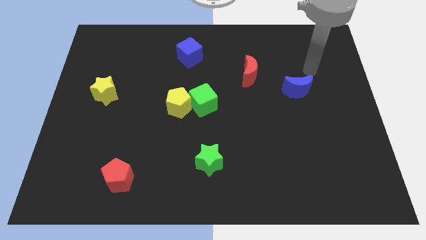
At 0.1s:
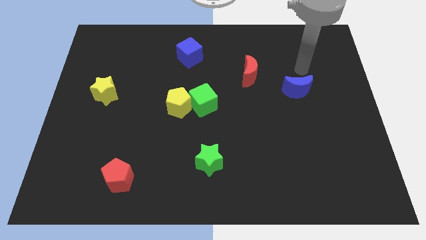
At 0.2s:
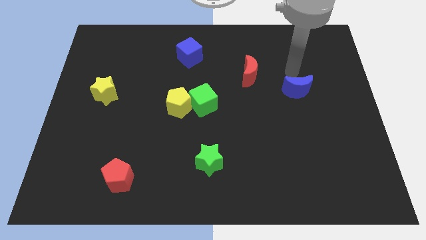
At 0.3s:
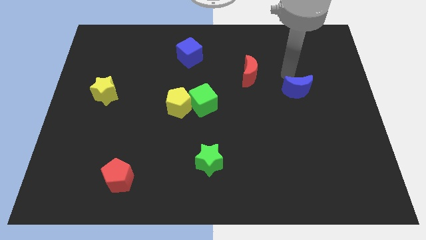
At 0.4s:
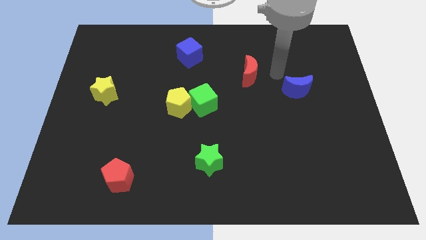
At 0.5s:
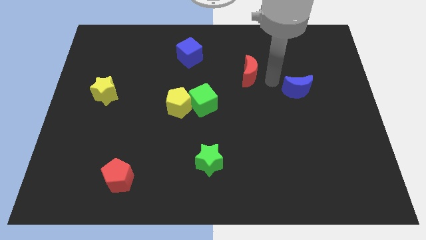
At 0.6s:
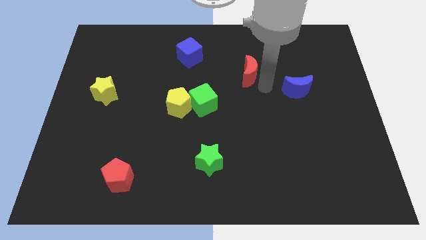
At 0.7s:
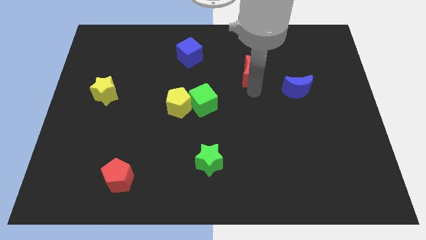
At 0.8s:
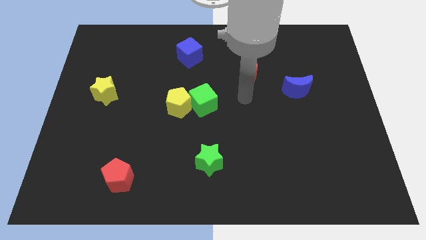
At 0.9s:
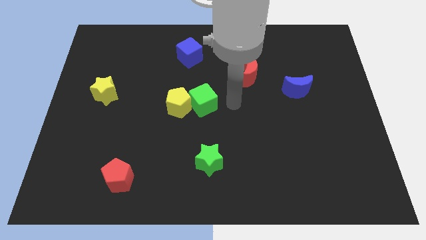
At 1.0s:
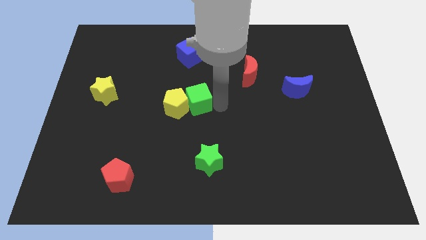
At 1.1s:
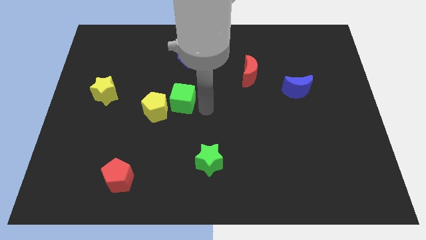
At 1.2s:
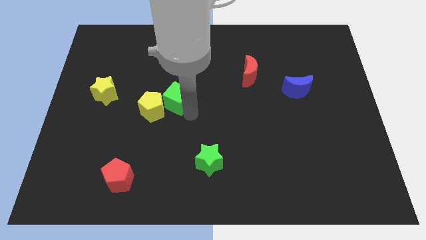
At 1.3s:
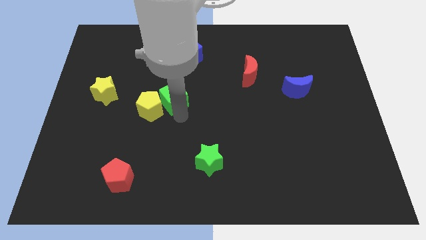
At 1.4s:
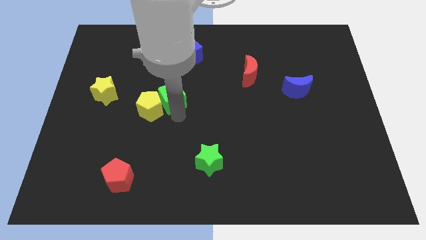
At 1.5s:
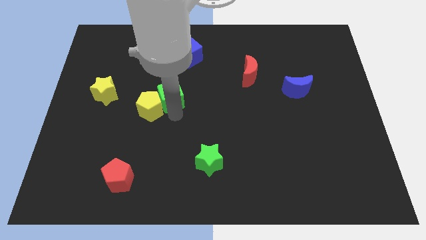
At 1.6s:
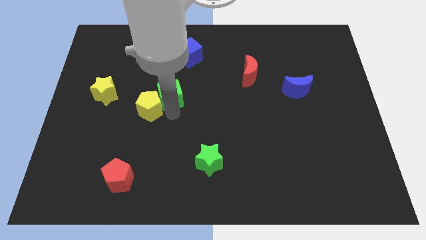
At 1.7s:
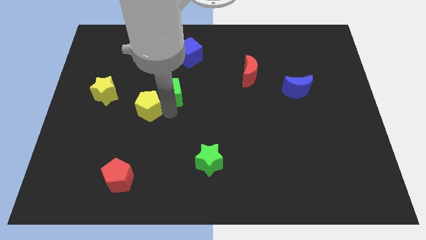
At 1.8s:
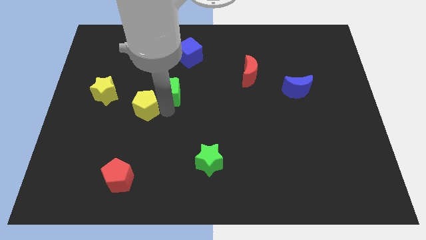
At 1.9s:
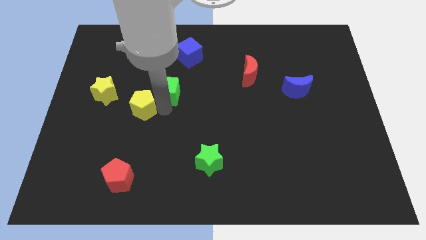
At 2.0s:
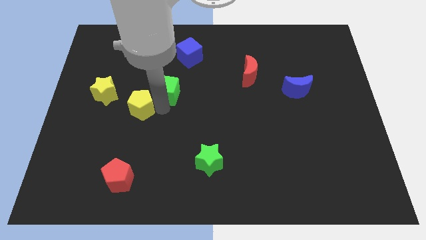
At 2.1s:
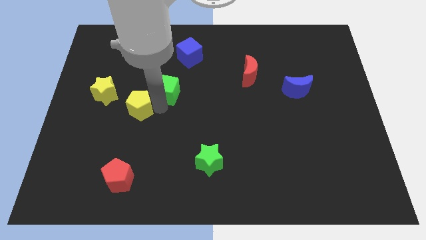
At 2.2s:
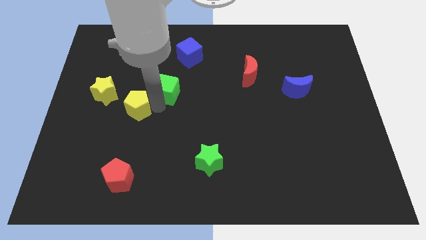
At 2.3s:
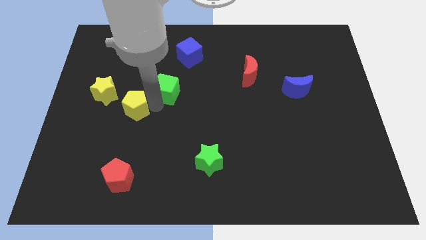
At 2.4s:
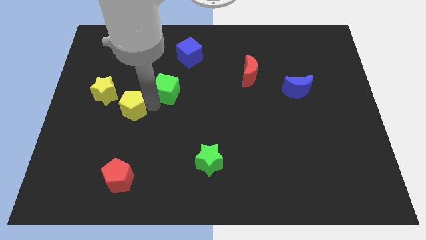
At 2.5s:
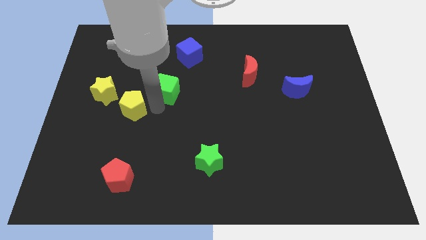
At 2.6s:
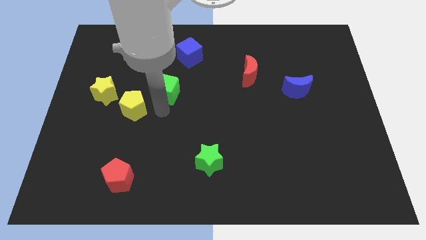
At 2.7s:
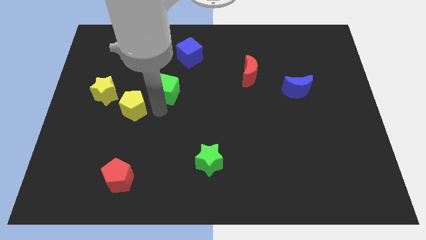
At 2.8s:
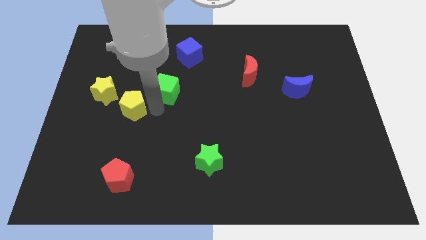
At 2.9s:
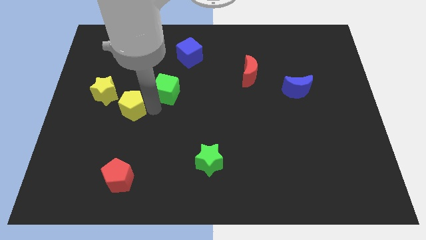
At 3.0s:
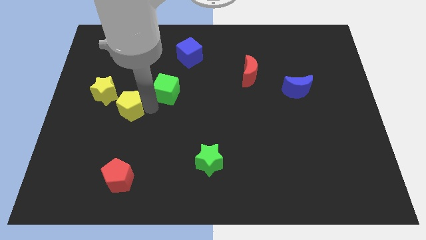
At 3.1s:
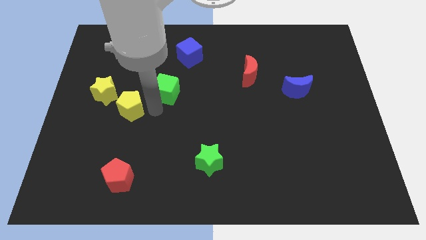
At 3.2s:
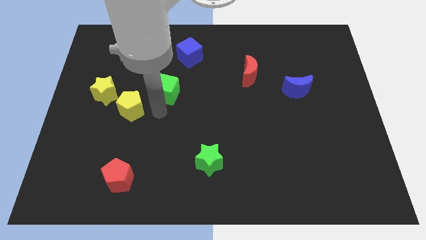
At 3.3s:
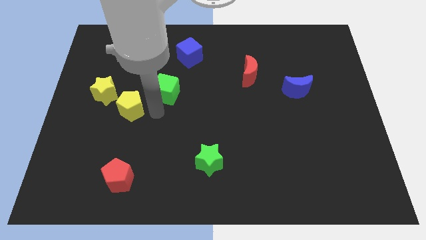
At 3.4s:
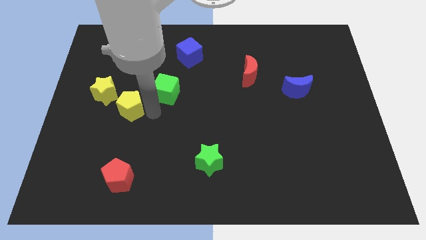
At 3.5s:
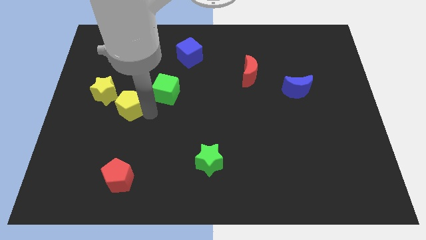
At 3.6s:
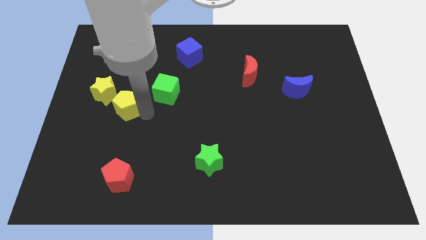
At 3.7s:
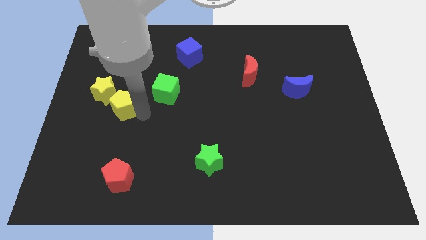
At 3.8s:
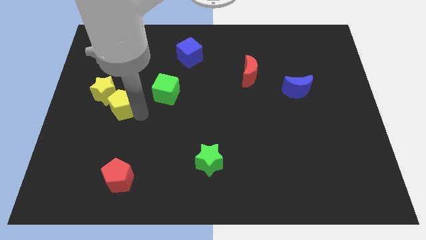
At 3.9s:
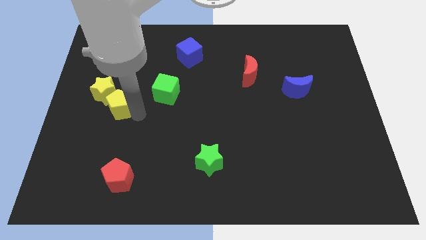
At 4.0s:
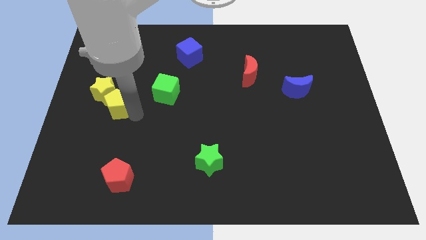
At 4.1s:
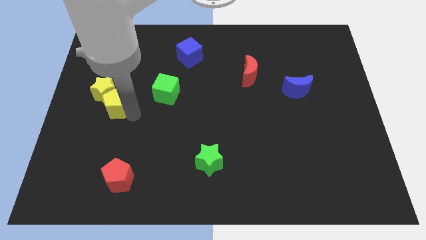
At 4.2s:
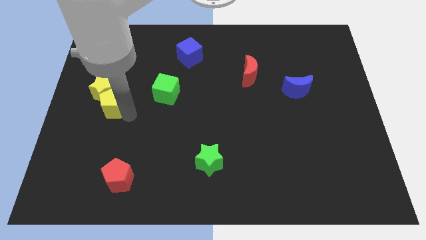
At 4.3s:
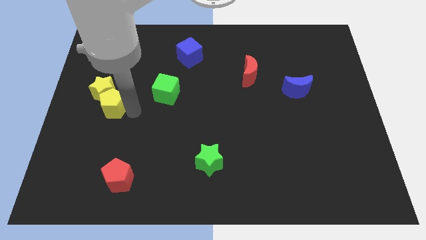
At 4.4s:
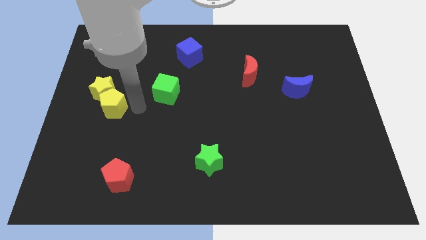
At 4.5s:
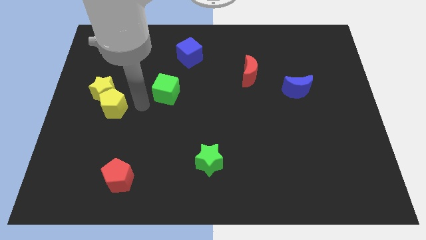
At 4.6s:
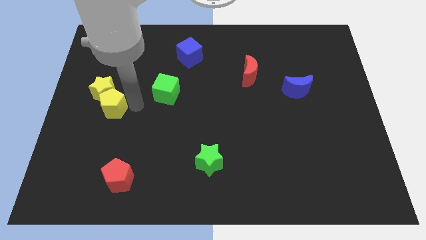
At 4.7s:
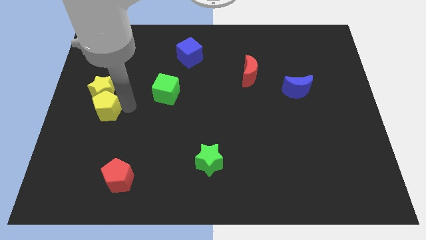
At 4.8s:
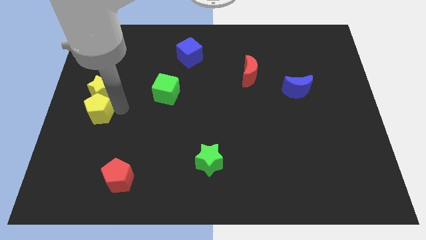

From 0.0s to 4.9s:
move the yellow pentagon to the center left

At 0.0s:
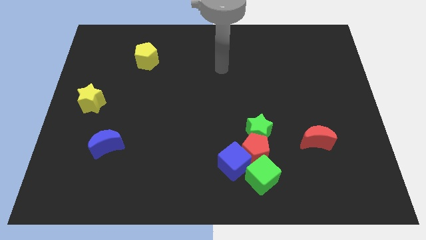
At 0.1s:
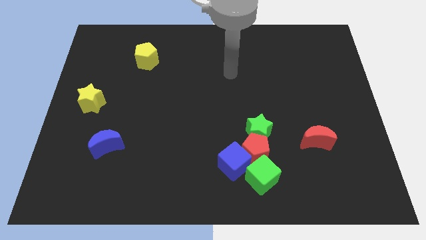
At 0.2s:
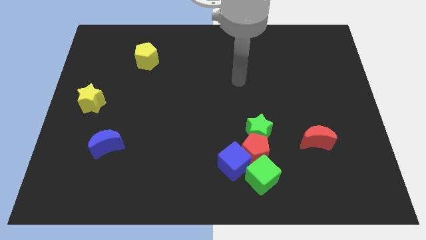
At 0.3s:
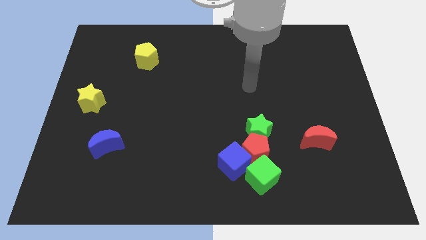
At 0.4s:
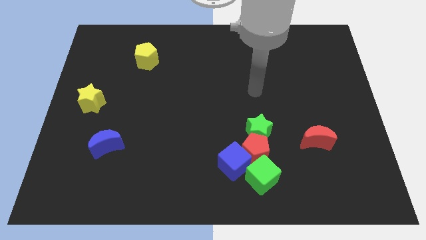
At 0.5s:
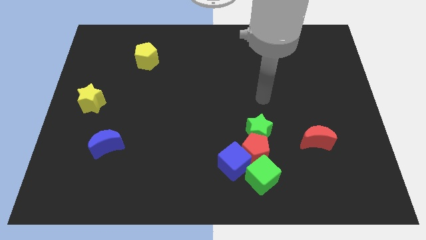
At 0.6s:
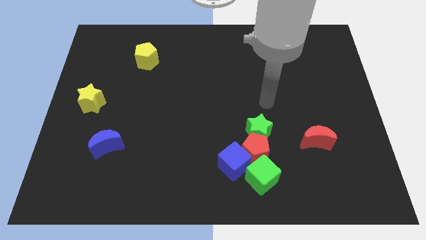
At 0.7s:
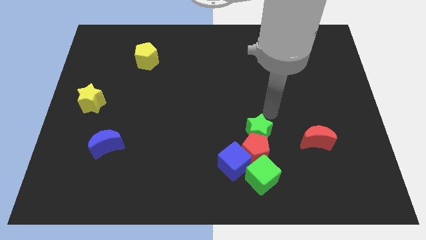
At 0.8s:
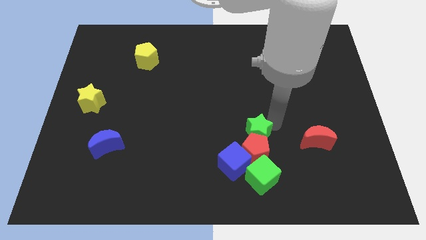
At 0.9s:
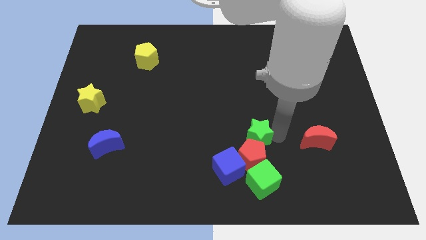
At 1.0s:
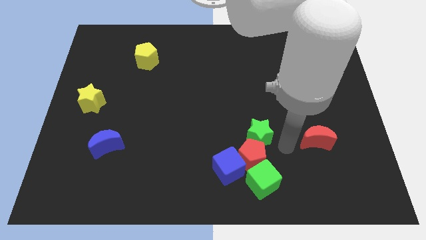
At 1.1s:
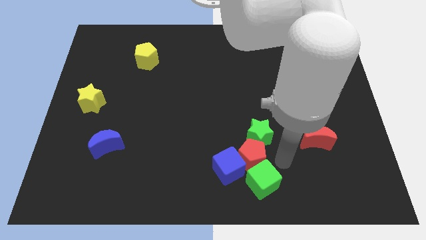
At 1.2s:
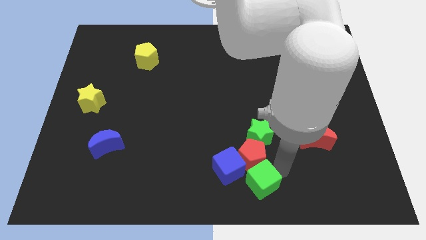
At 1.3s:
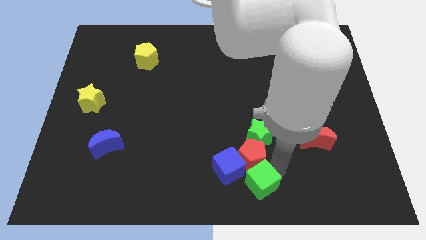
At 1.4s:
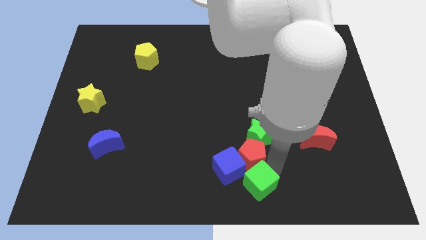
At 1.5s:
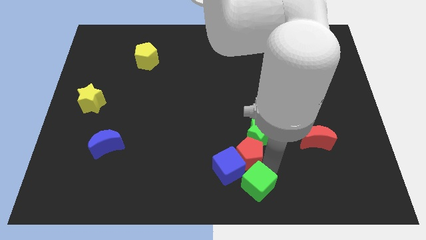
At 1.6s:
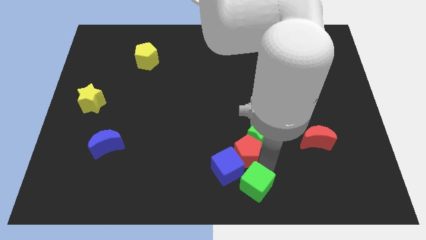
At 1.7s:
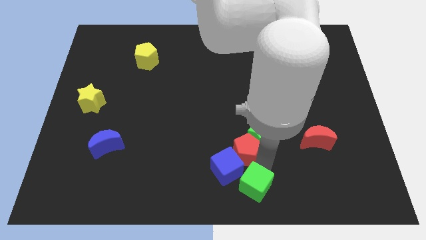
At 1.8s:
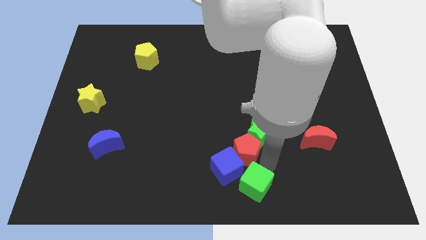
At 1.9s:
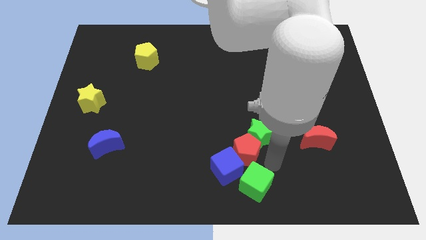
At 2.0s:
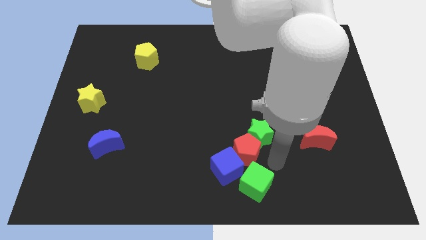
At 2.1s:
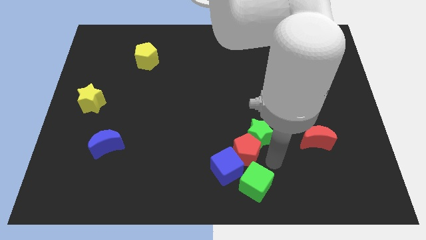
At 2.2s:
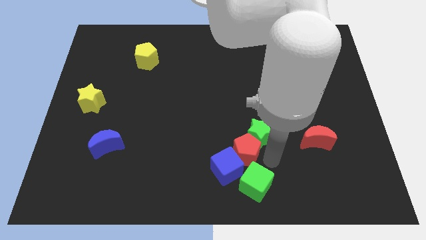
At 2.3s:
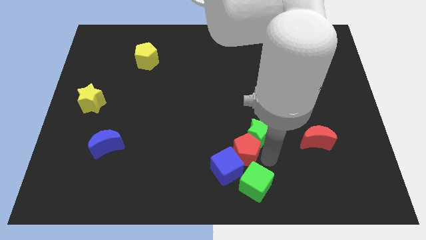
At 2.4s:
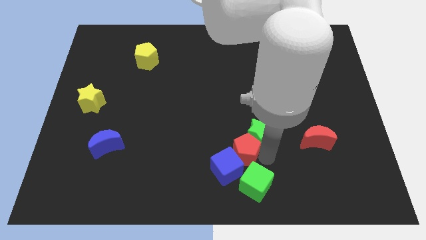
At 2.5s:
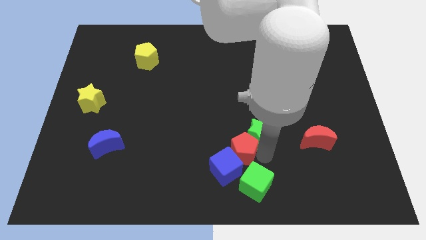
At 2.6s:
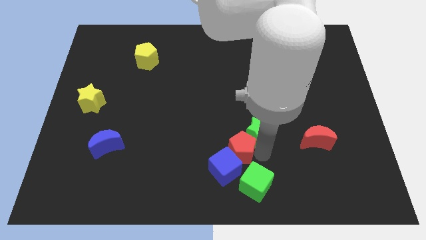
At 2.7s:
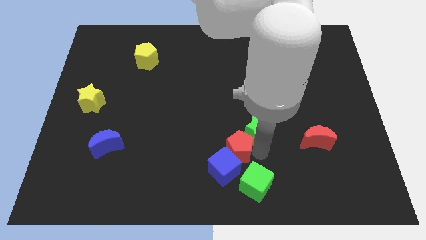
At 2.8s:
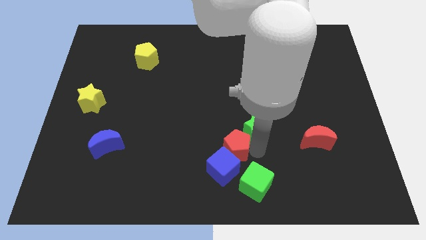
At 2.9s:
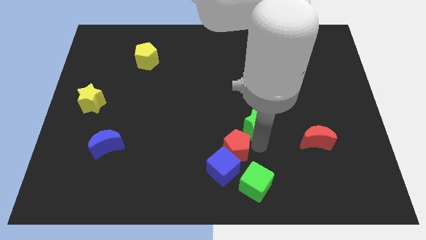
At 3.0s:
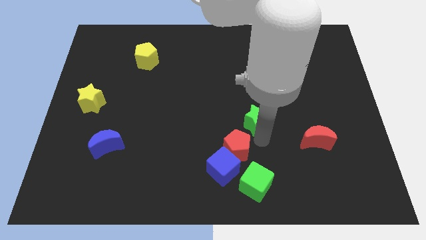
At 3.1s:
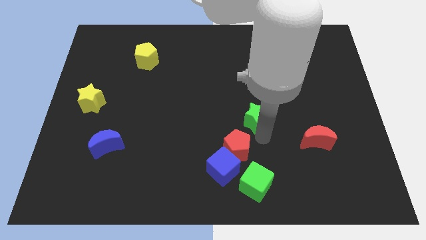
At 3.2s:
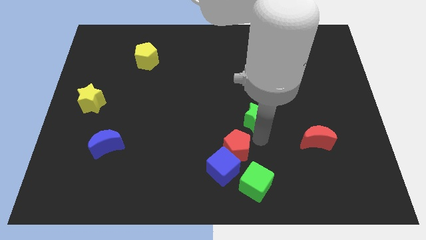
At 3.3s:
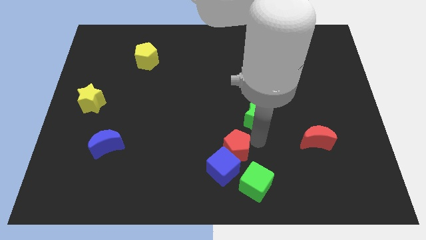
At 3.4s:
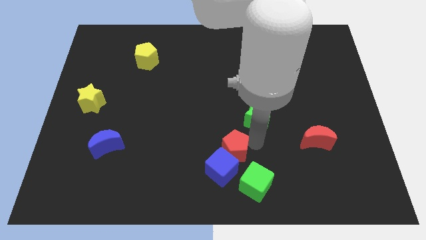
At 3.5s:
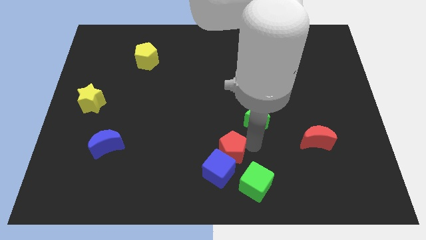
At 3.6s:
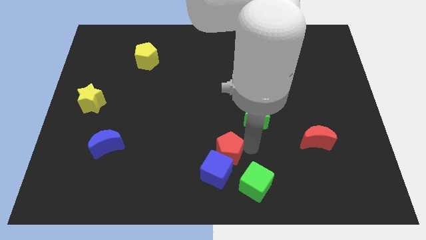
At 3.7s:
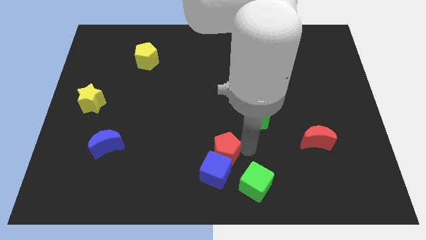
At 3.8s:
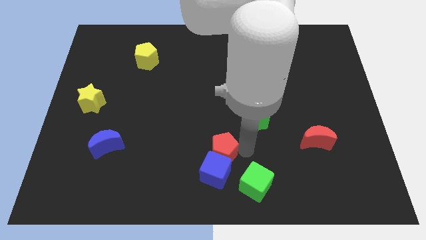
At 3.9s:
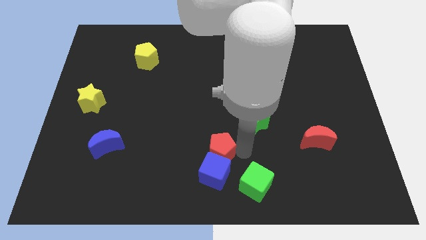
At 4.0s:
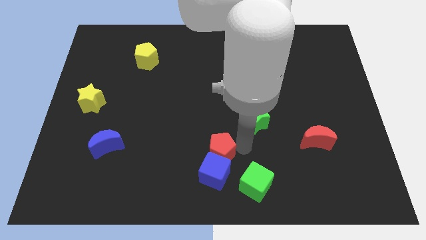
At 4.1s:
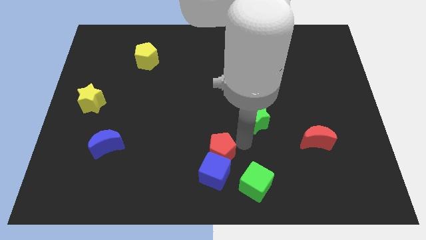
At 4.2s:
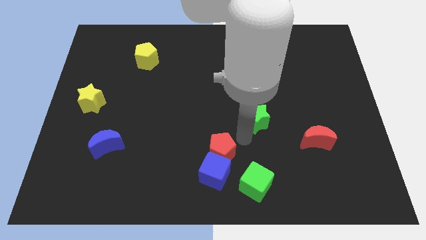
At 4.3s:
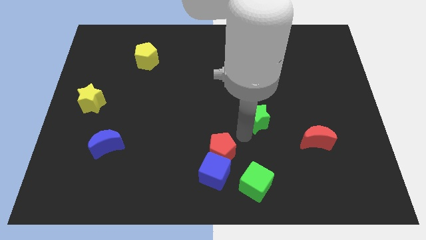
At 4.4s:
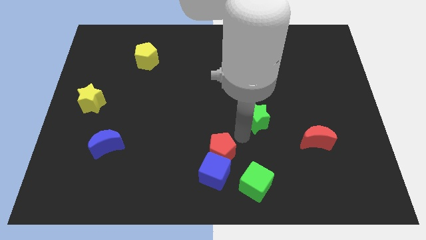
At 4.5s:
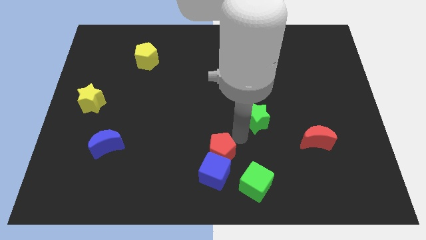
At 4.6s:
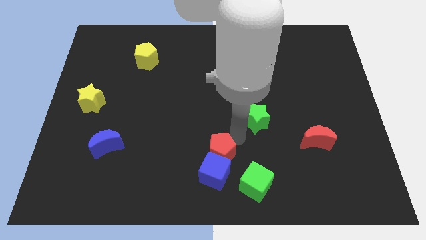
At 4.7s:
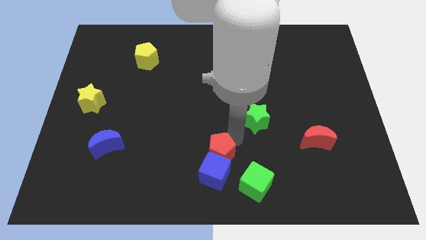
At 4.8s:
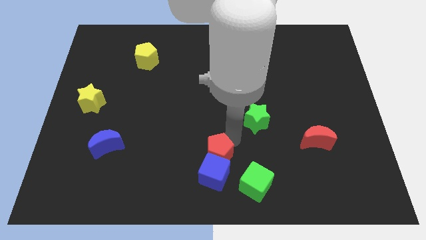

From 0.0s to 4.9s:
push the red pentagon to the bottom
